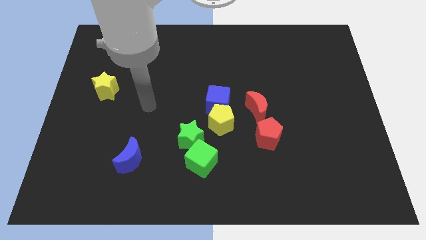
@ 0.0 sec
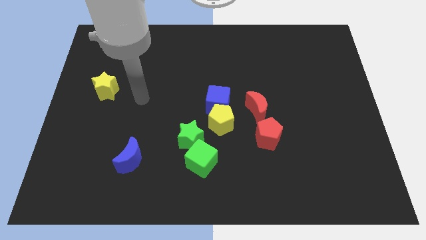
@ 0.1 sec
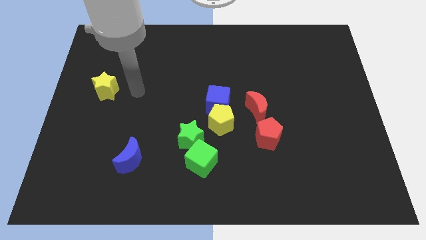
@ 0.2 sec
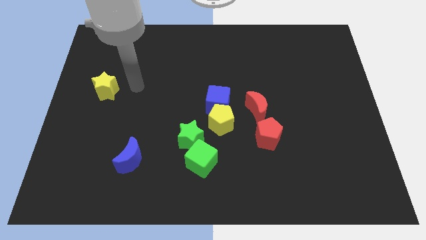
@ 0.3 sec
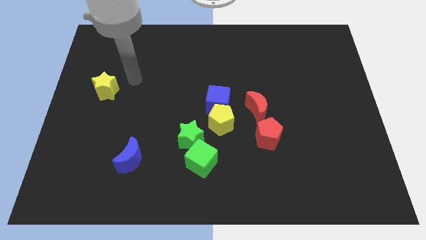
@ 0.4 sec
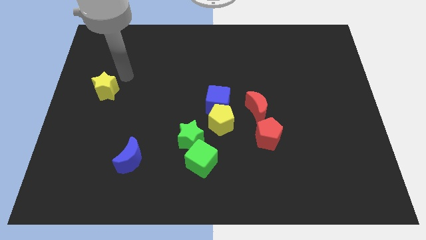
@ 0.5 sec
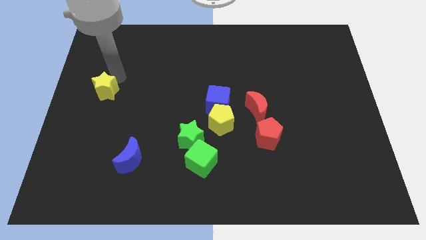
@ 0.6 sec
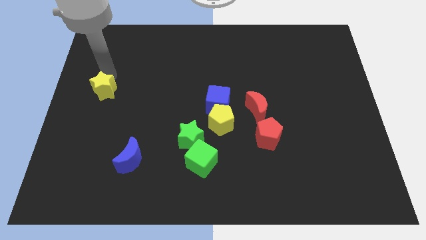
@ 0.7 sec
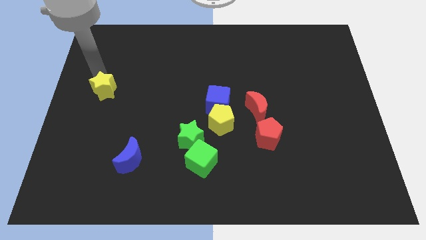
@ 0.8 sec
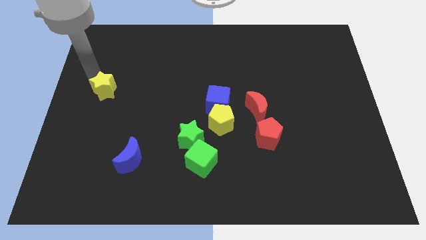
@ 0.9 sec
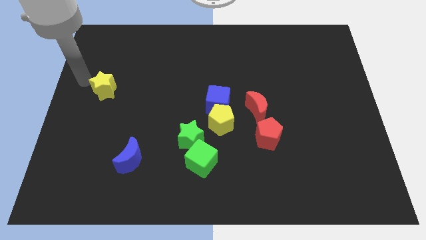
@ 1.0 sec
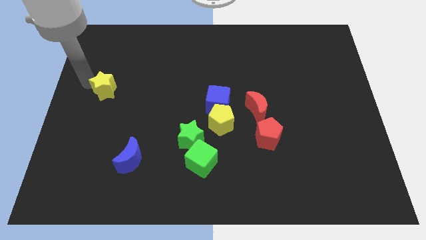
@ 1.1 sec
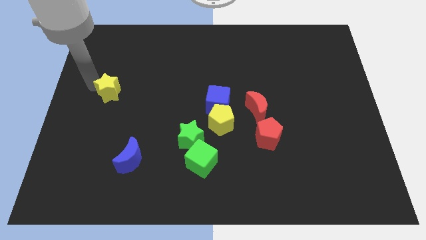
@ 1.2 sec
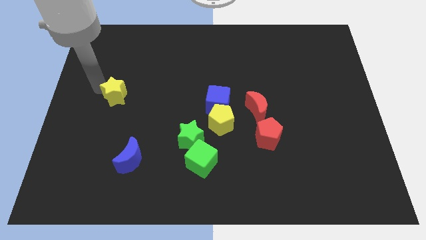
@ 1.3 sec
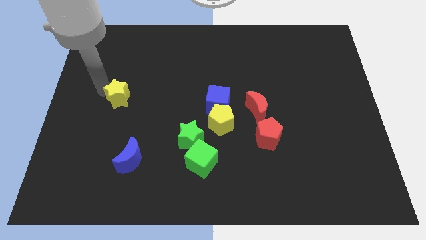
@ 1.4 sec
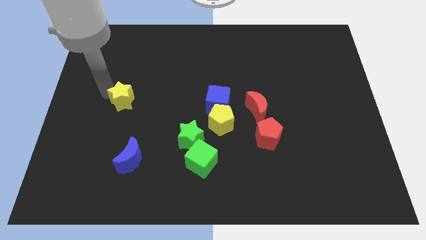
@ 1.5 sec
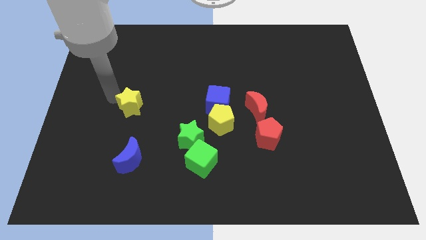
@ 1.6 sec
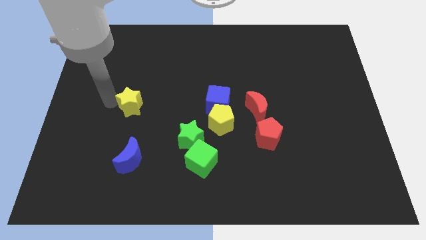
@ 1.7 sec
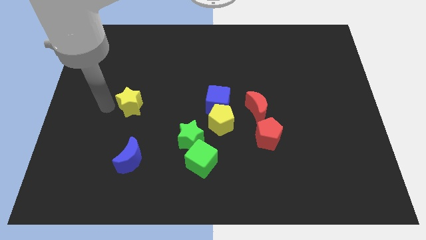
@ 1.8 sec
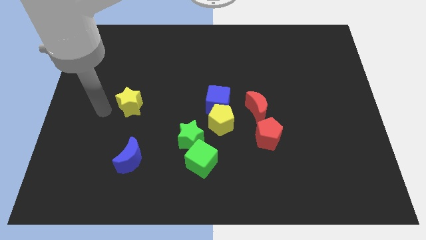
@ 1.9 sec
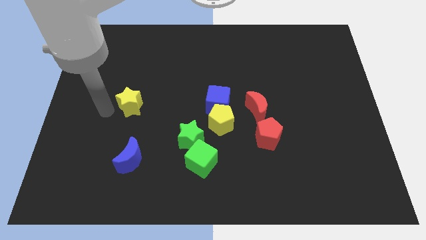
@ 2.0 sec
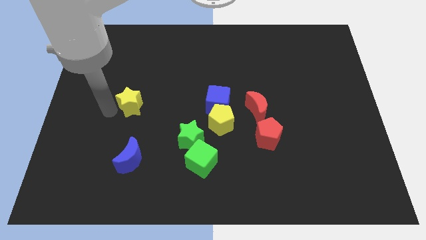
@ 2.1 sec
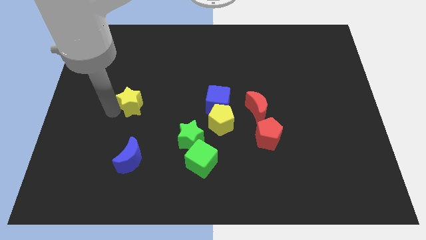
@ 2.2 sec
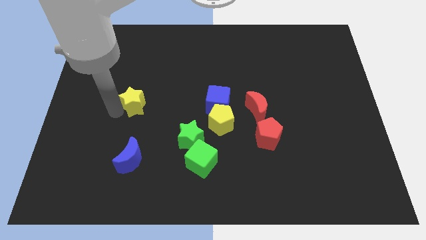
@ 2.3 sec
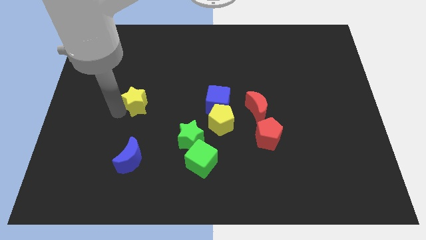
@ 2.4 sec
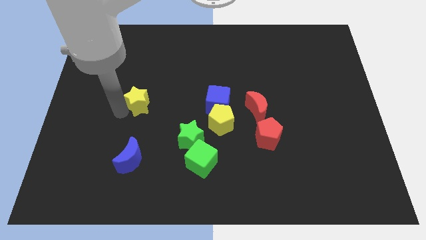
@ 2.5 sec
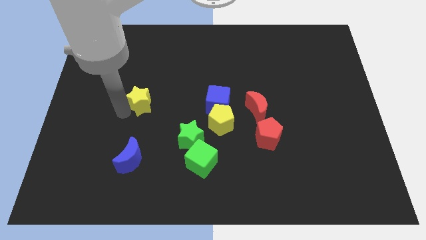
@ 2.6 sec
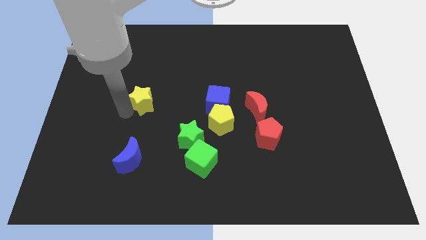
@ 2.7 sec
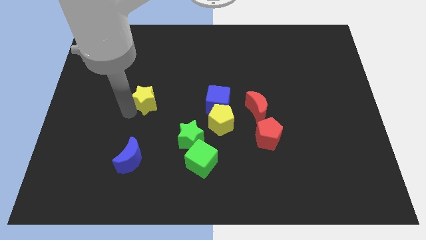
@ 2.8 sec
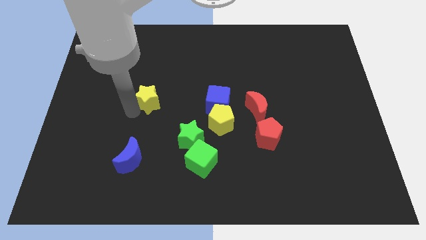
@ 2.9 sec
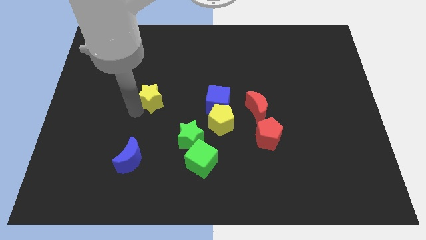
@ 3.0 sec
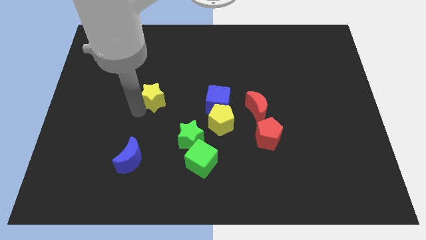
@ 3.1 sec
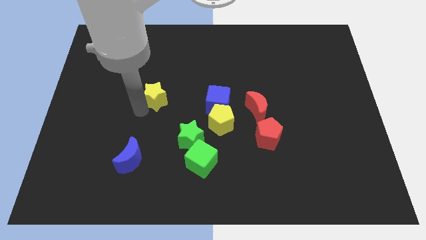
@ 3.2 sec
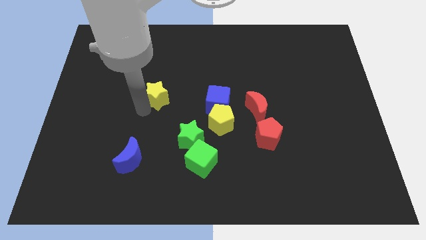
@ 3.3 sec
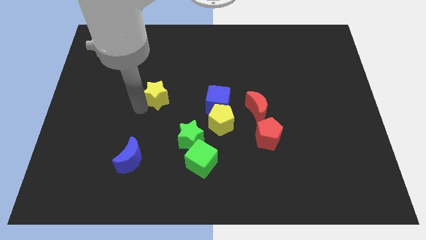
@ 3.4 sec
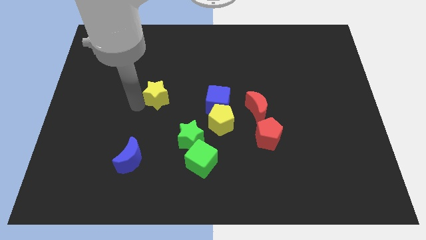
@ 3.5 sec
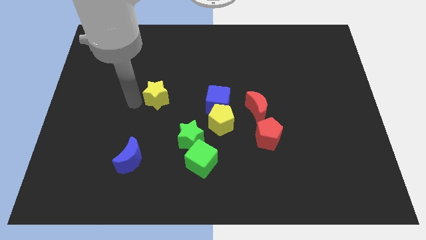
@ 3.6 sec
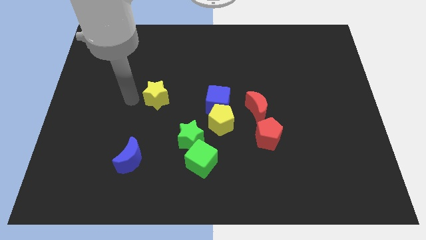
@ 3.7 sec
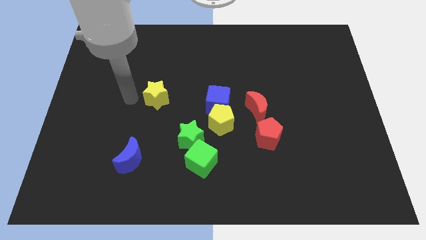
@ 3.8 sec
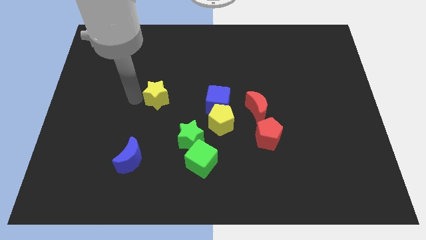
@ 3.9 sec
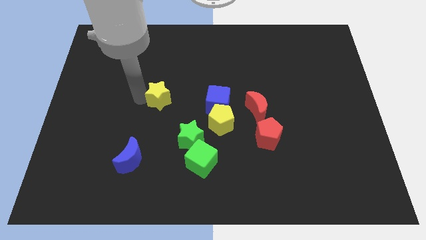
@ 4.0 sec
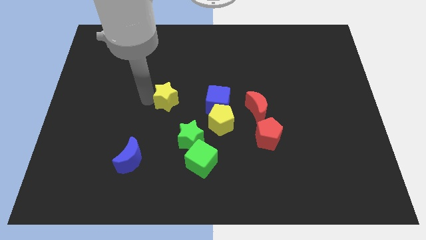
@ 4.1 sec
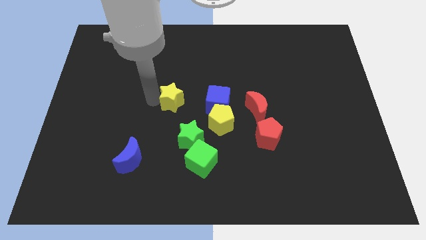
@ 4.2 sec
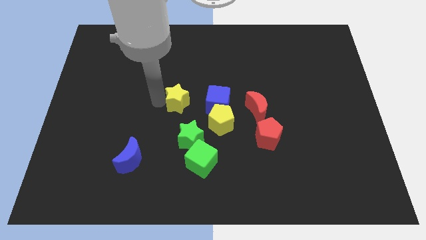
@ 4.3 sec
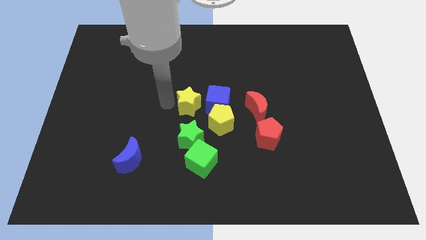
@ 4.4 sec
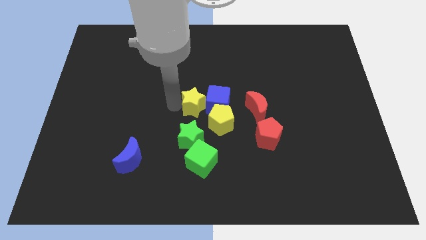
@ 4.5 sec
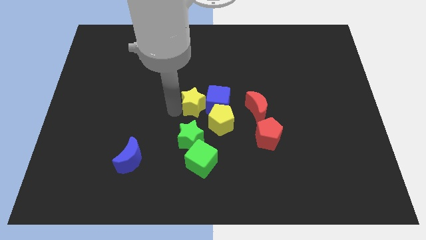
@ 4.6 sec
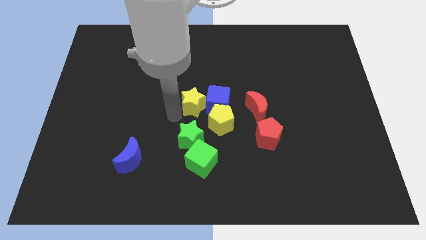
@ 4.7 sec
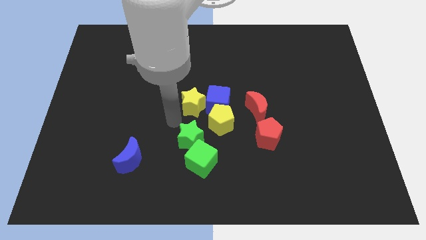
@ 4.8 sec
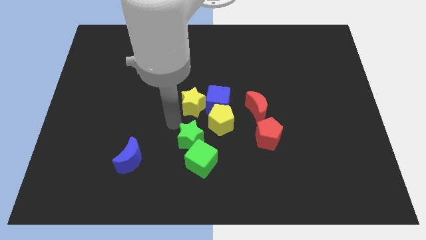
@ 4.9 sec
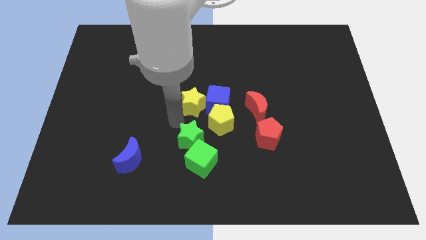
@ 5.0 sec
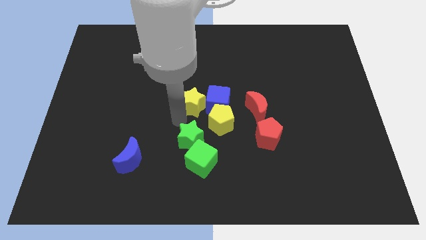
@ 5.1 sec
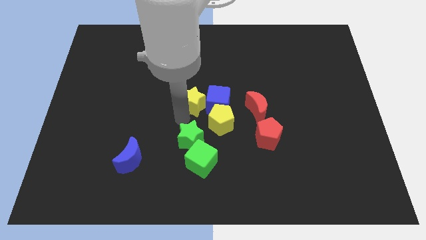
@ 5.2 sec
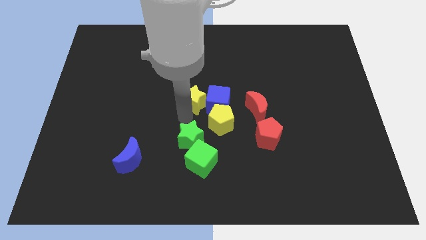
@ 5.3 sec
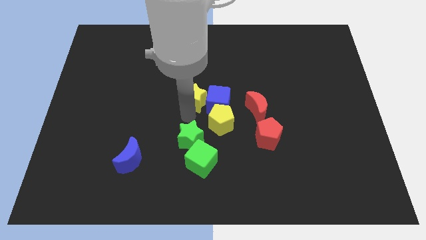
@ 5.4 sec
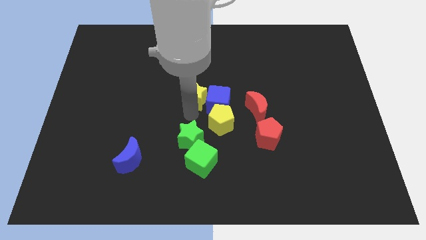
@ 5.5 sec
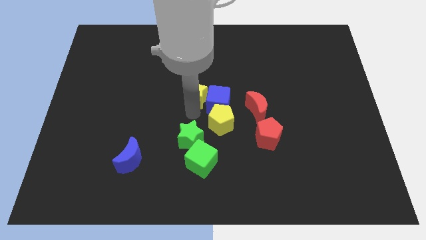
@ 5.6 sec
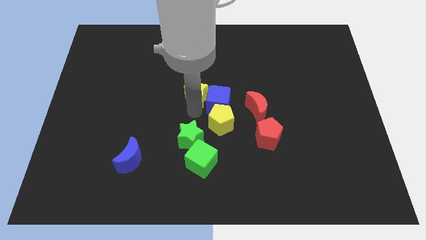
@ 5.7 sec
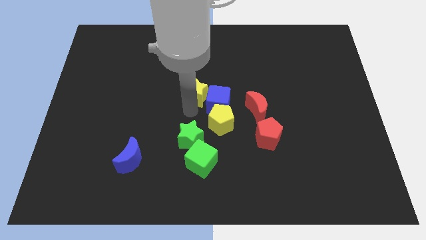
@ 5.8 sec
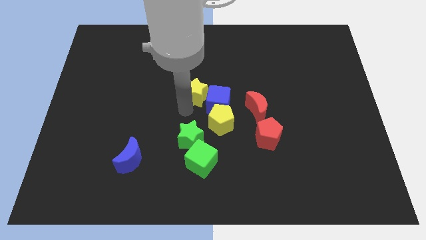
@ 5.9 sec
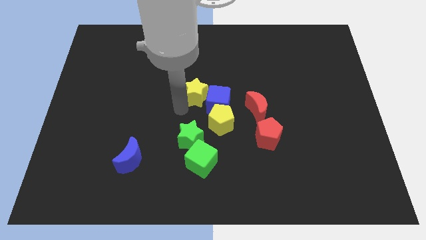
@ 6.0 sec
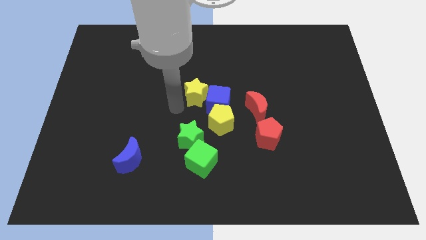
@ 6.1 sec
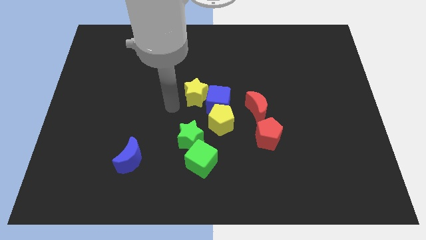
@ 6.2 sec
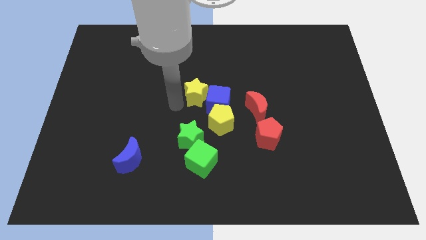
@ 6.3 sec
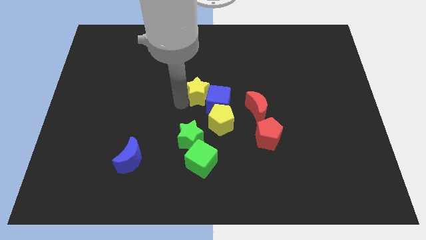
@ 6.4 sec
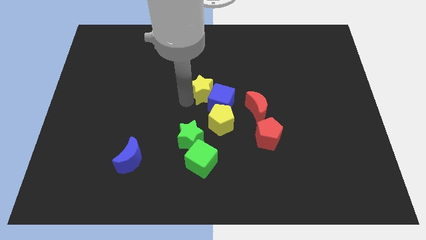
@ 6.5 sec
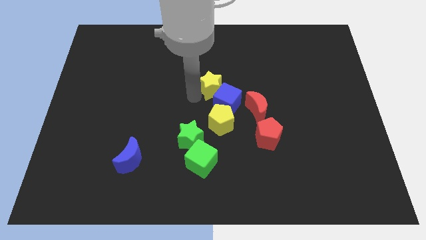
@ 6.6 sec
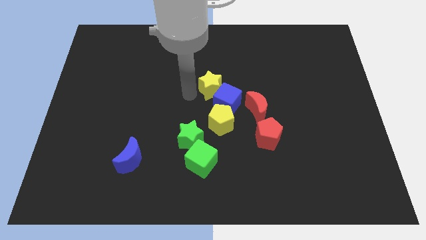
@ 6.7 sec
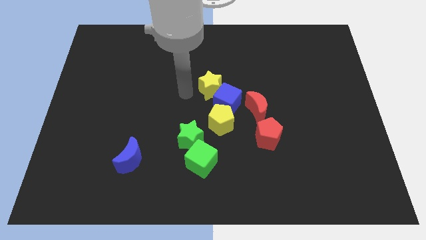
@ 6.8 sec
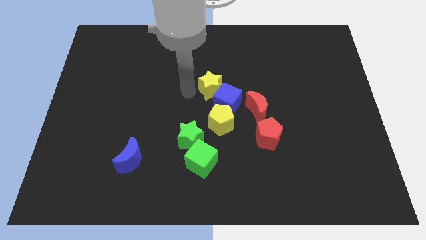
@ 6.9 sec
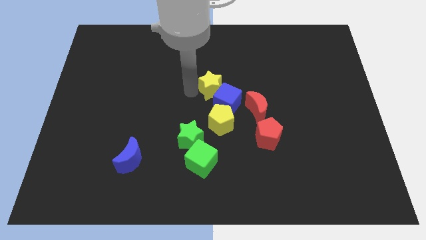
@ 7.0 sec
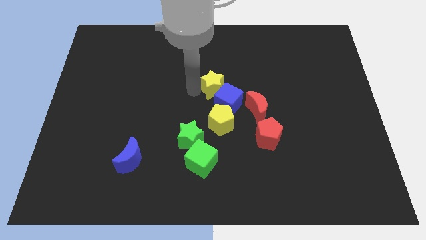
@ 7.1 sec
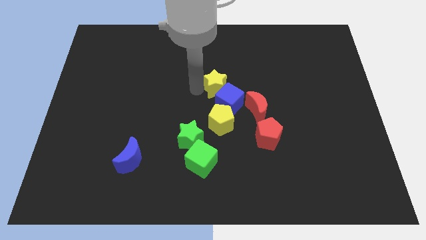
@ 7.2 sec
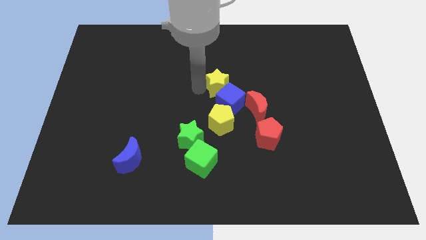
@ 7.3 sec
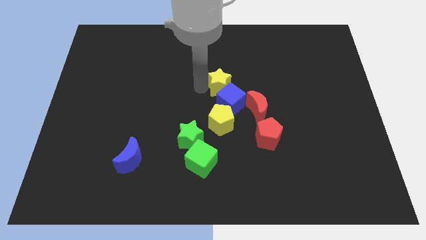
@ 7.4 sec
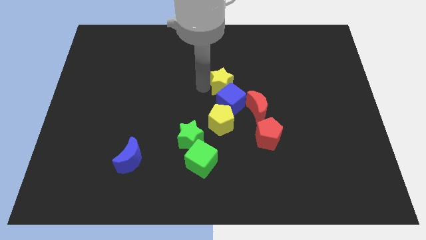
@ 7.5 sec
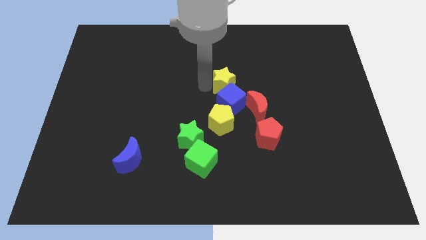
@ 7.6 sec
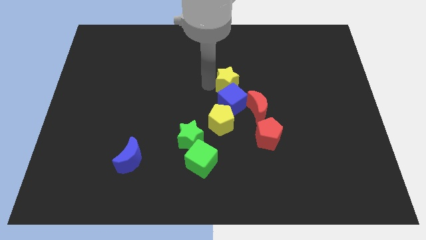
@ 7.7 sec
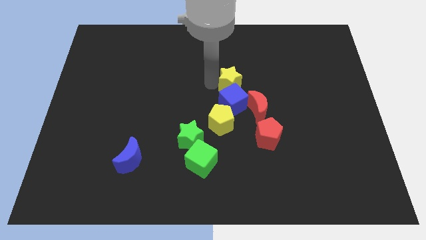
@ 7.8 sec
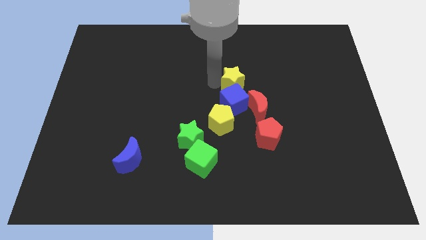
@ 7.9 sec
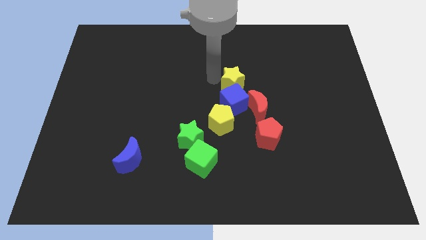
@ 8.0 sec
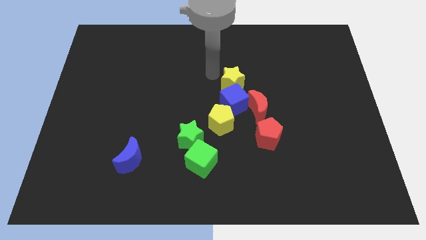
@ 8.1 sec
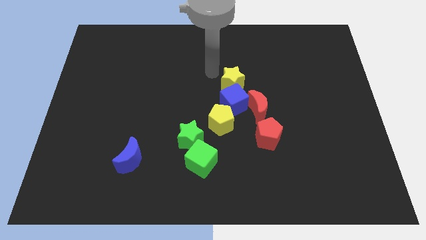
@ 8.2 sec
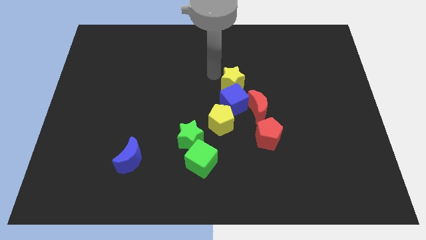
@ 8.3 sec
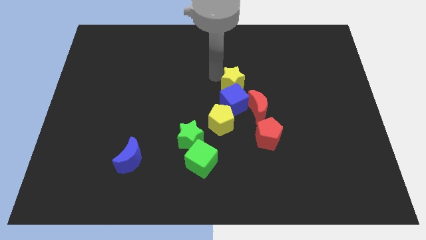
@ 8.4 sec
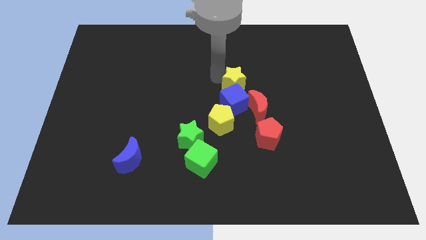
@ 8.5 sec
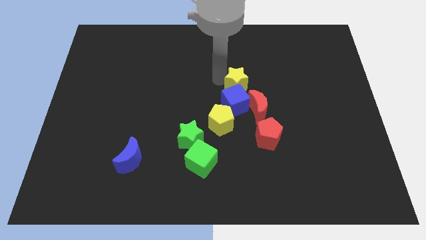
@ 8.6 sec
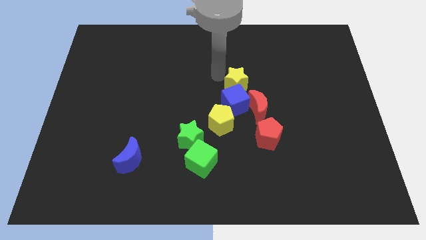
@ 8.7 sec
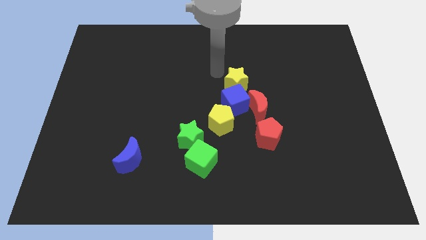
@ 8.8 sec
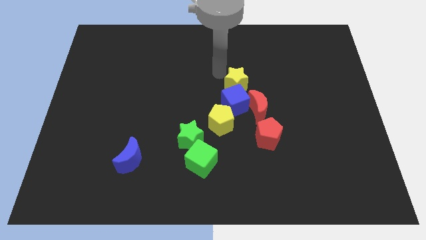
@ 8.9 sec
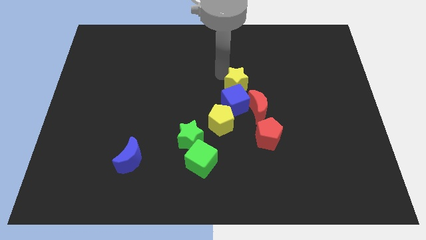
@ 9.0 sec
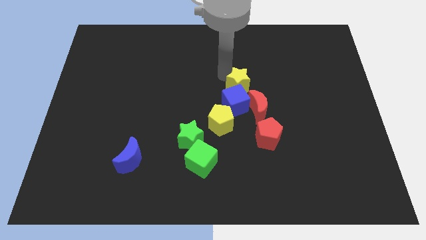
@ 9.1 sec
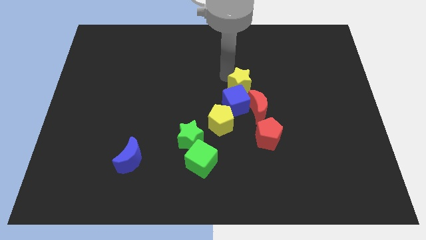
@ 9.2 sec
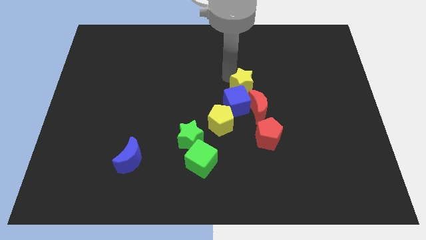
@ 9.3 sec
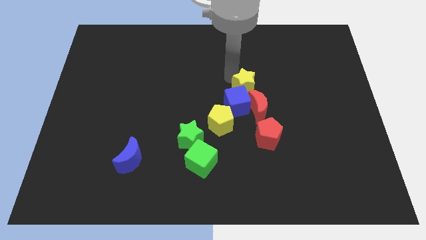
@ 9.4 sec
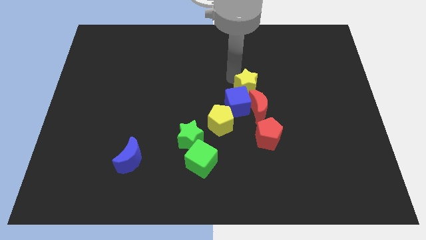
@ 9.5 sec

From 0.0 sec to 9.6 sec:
slide the yellow star diagonally up and to the right of the yellow pentagon
